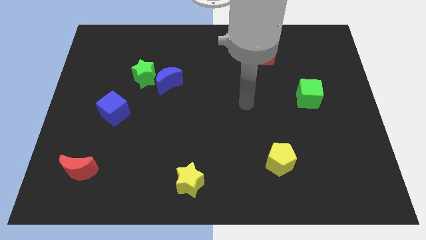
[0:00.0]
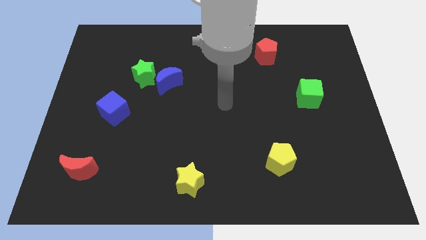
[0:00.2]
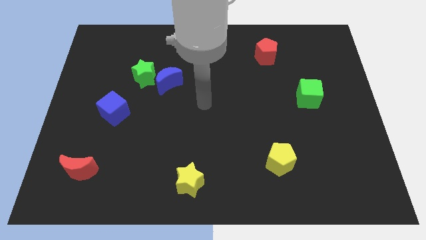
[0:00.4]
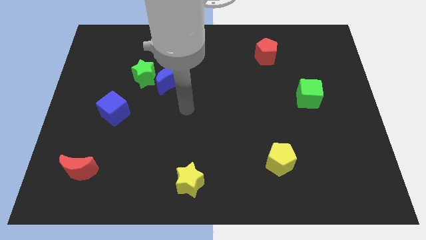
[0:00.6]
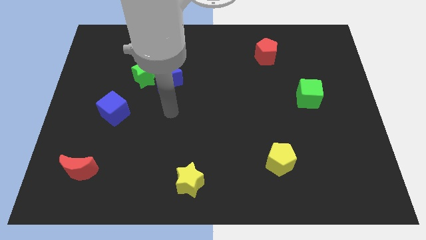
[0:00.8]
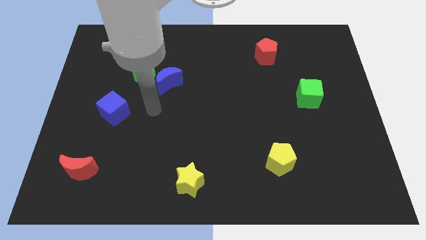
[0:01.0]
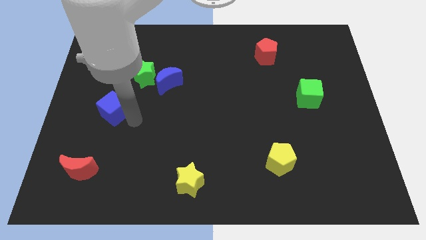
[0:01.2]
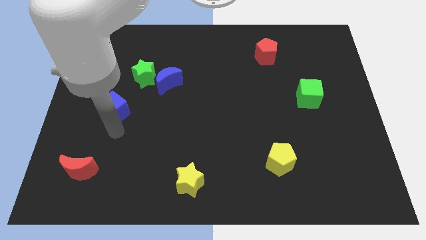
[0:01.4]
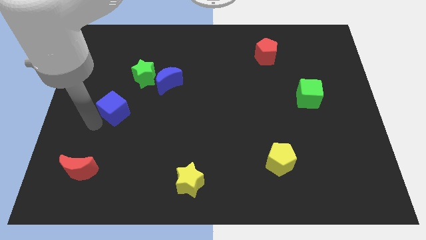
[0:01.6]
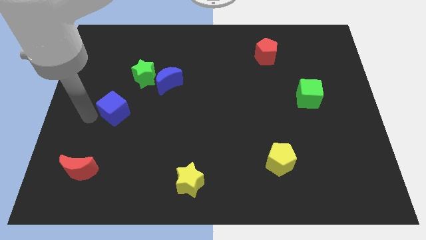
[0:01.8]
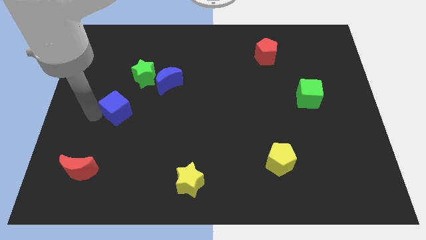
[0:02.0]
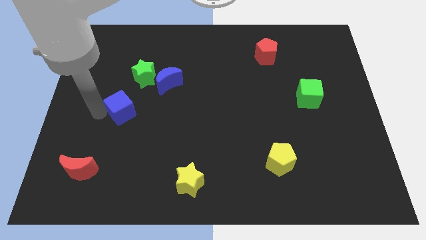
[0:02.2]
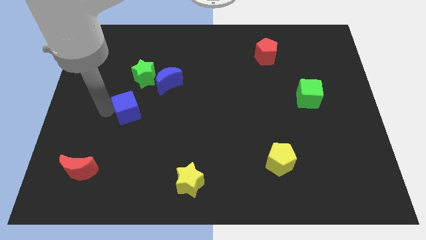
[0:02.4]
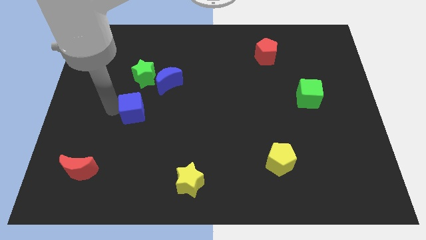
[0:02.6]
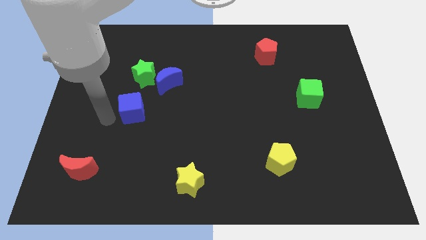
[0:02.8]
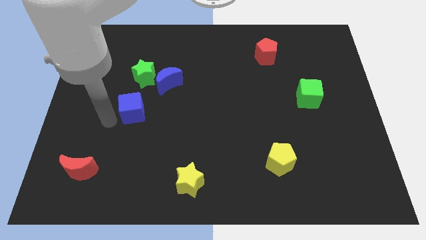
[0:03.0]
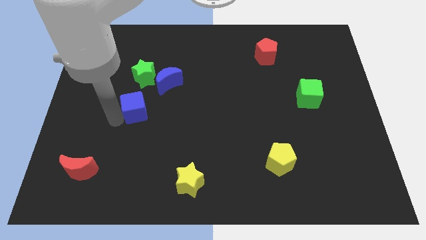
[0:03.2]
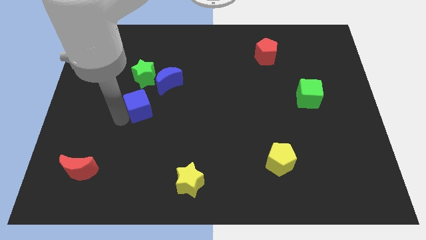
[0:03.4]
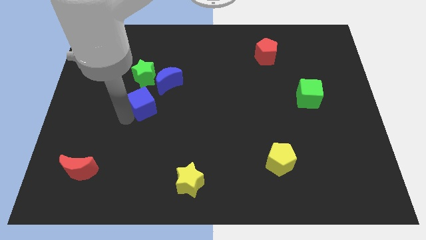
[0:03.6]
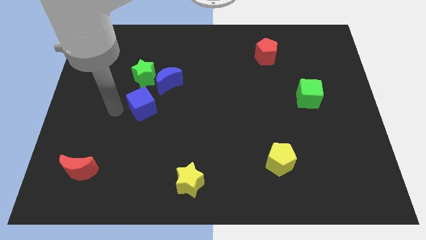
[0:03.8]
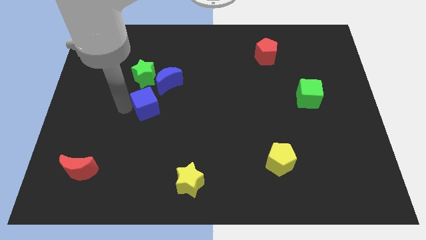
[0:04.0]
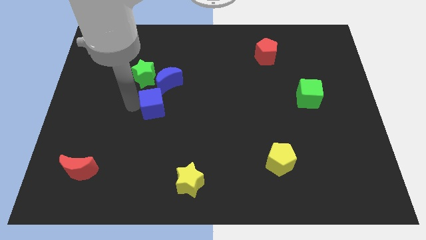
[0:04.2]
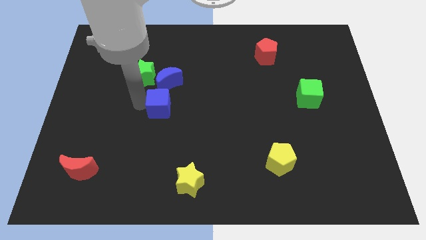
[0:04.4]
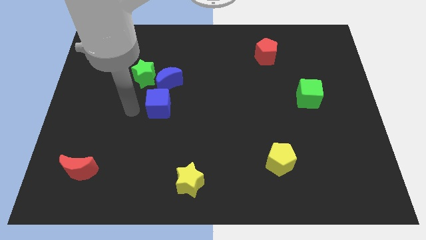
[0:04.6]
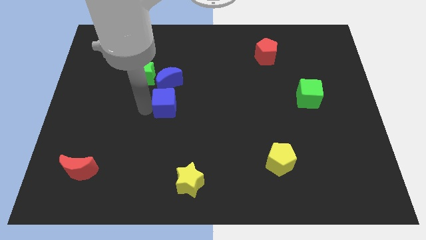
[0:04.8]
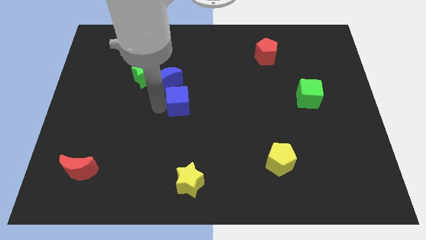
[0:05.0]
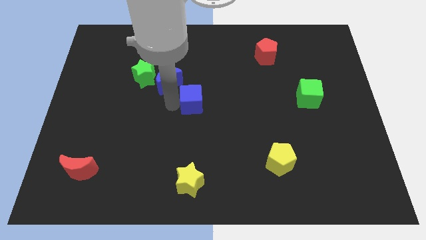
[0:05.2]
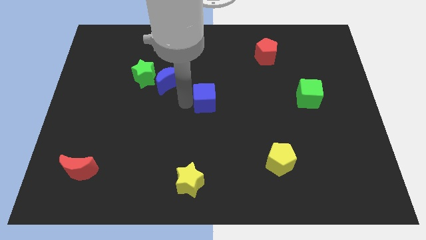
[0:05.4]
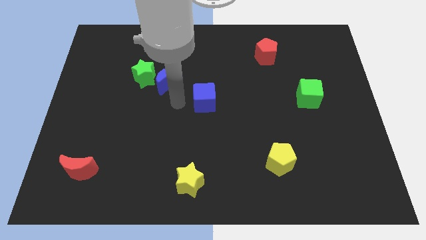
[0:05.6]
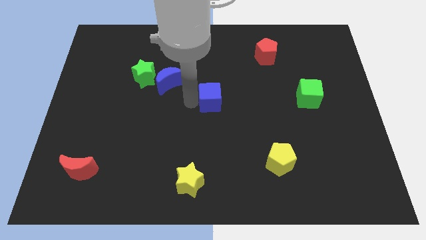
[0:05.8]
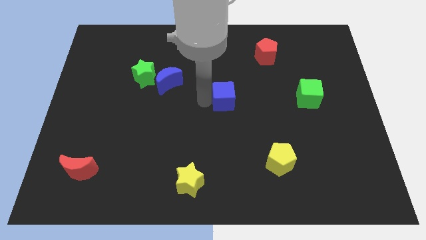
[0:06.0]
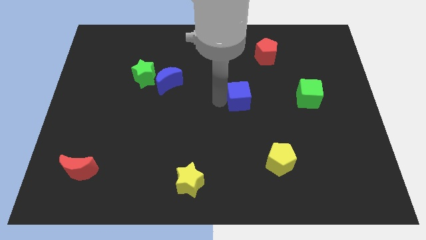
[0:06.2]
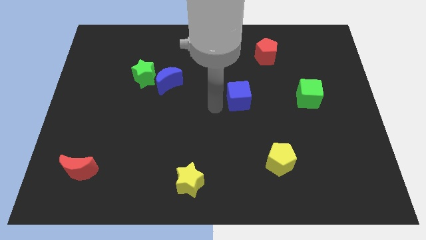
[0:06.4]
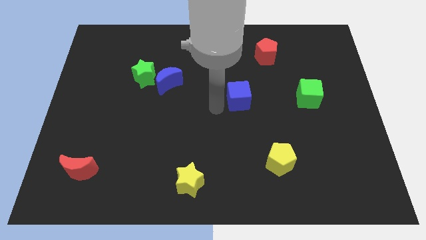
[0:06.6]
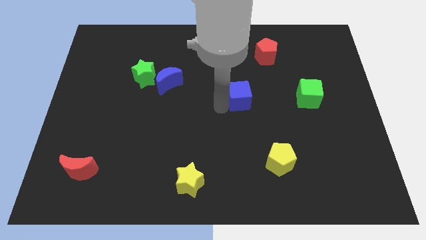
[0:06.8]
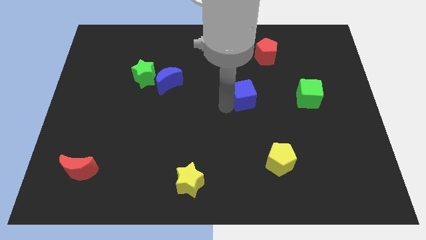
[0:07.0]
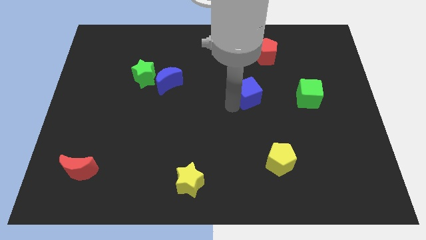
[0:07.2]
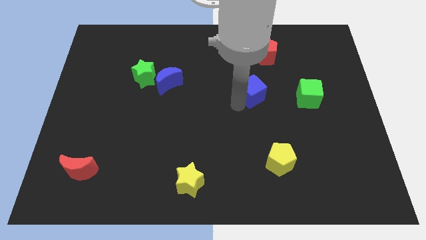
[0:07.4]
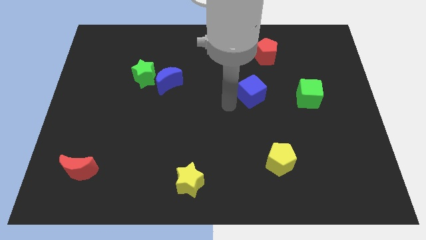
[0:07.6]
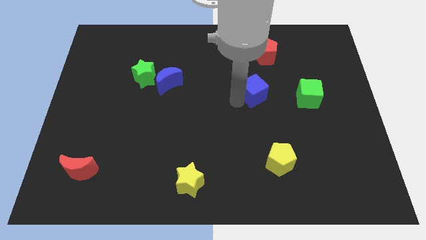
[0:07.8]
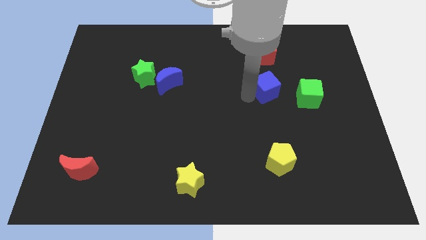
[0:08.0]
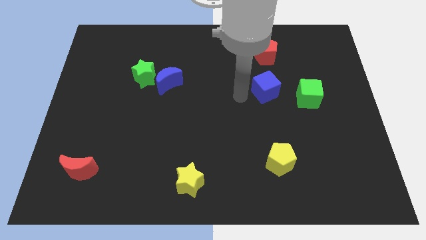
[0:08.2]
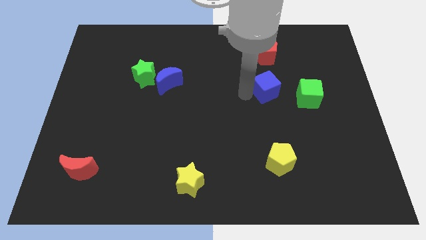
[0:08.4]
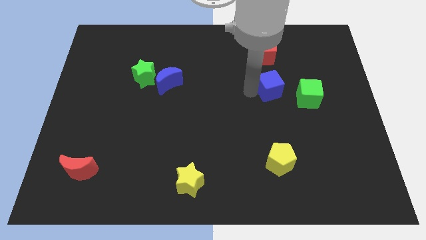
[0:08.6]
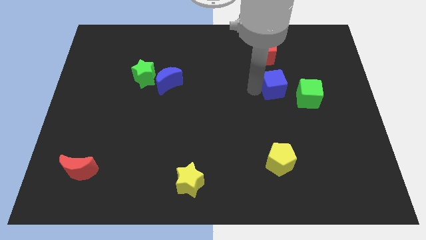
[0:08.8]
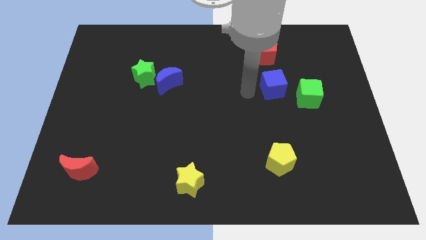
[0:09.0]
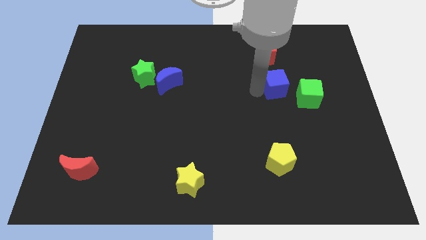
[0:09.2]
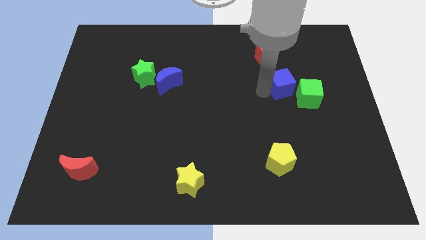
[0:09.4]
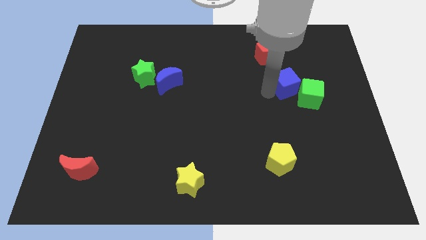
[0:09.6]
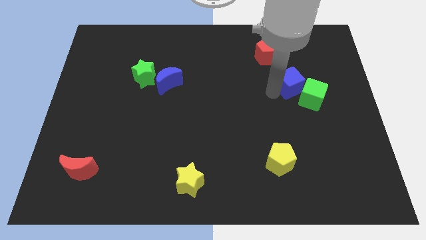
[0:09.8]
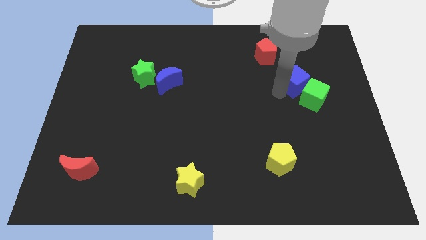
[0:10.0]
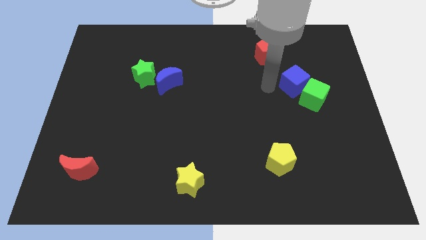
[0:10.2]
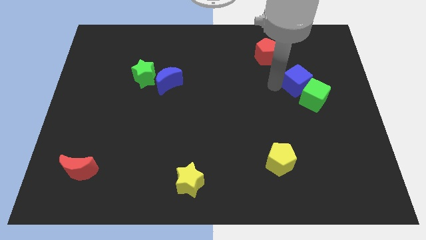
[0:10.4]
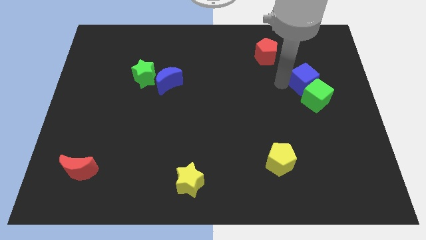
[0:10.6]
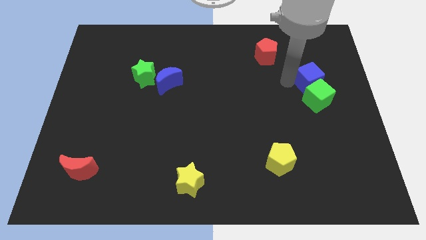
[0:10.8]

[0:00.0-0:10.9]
move the blue cube to the top right of the green cube

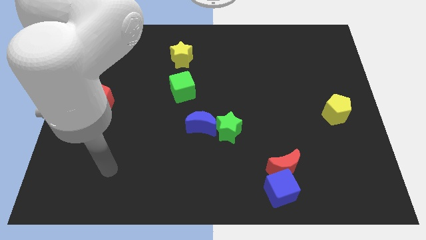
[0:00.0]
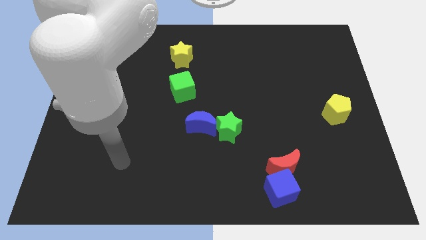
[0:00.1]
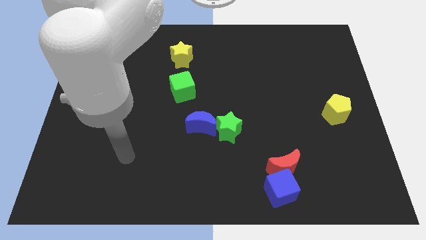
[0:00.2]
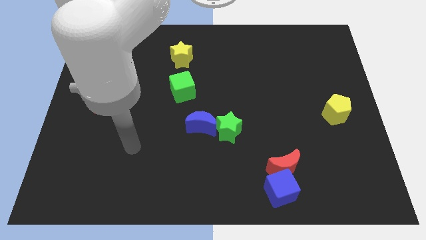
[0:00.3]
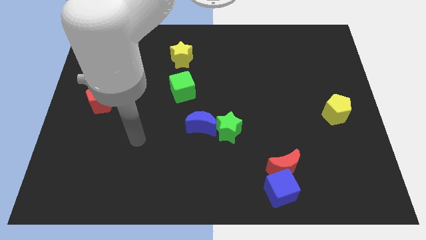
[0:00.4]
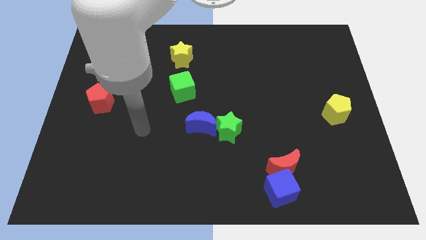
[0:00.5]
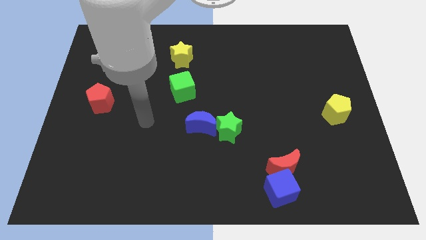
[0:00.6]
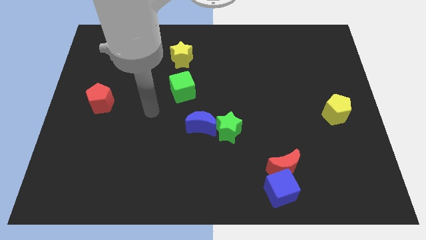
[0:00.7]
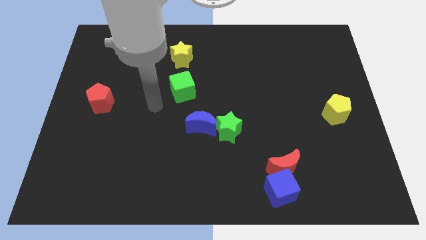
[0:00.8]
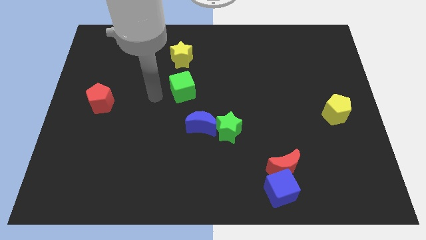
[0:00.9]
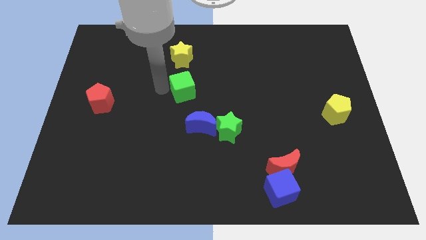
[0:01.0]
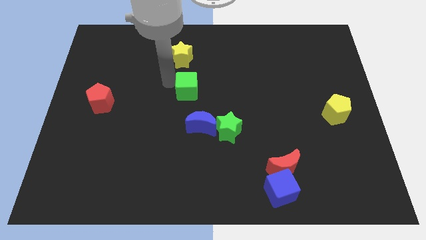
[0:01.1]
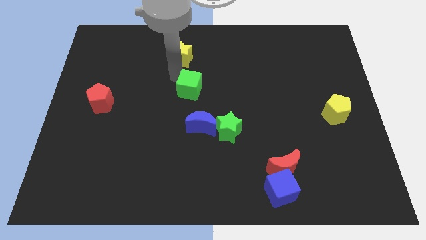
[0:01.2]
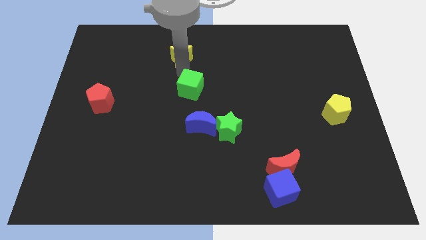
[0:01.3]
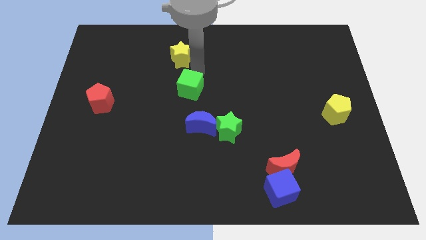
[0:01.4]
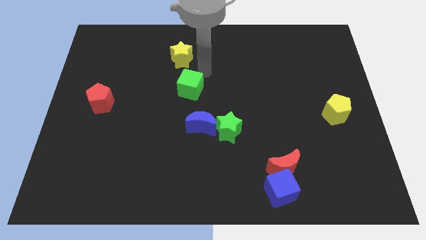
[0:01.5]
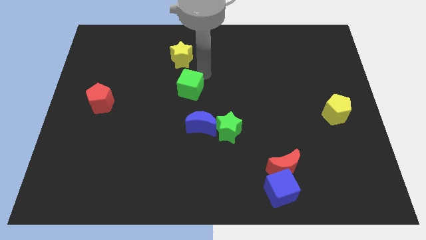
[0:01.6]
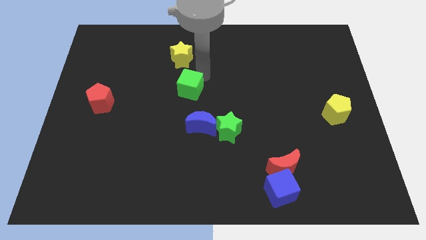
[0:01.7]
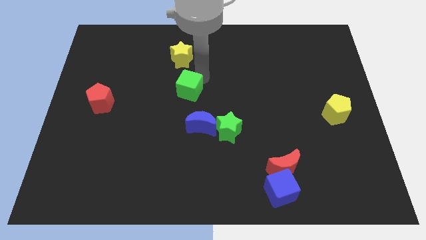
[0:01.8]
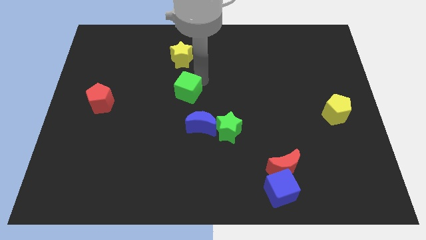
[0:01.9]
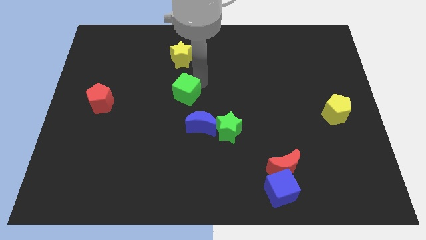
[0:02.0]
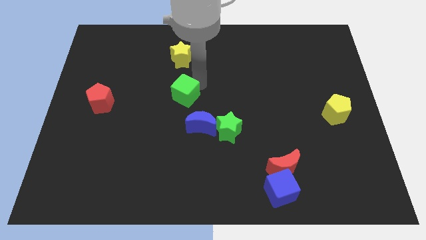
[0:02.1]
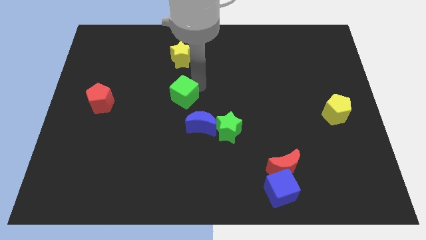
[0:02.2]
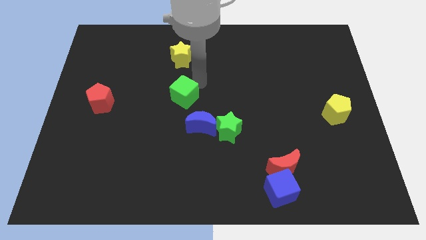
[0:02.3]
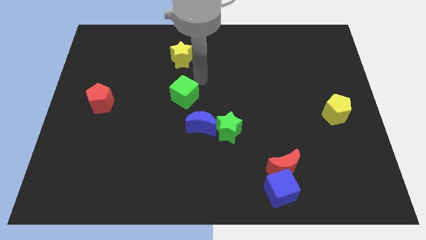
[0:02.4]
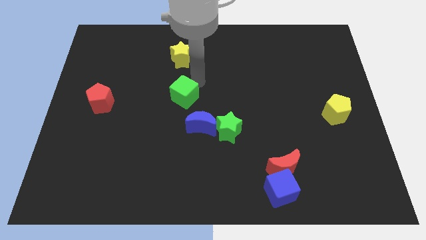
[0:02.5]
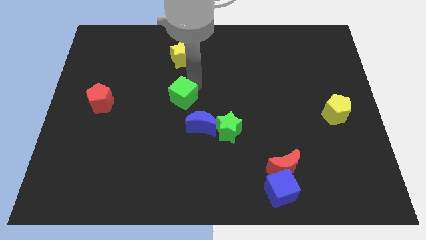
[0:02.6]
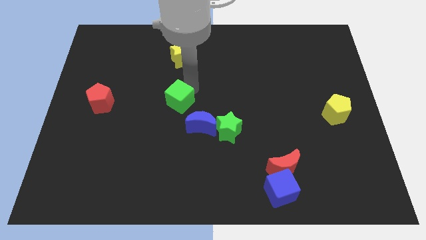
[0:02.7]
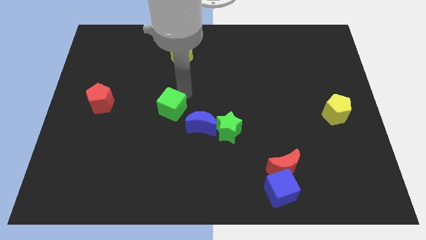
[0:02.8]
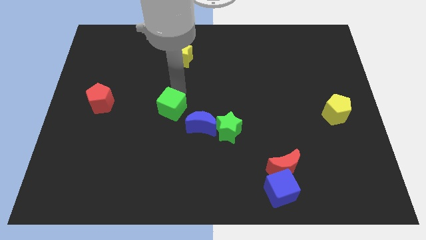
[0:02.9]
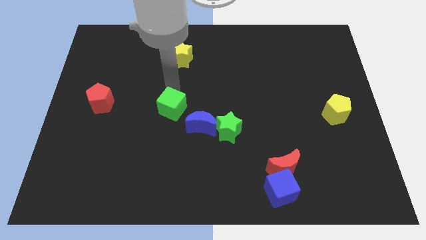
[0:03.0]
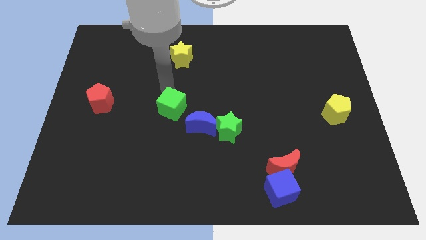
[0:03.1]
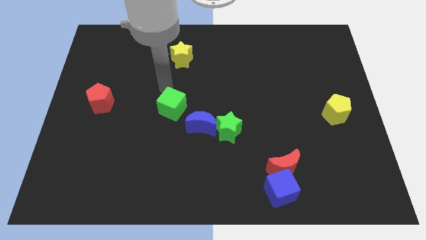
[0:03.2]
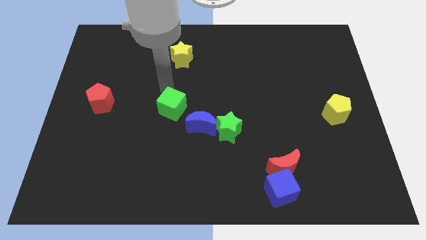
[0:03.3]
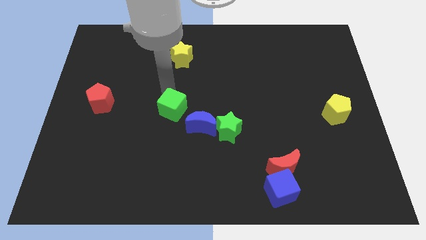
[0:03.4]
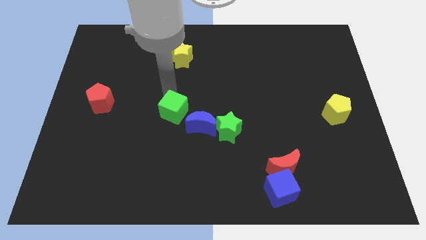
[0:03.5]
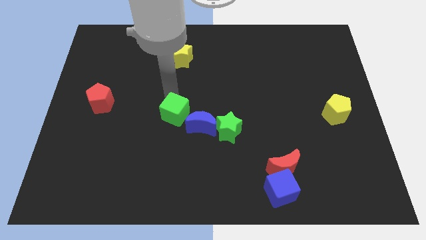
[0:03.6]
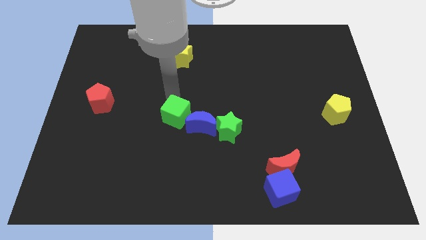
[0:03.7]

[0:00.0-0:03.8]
move the green cube left of the green star
